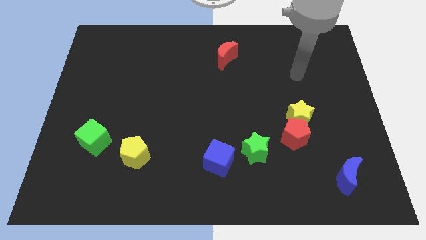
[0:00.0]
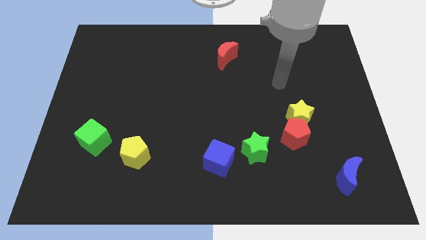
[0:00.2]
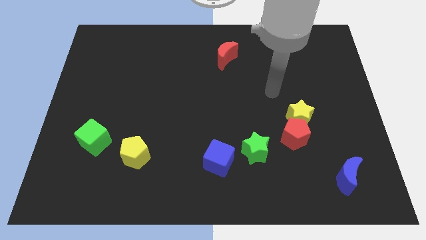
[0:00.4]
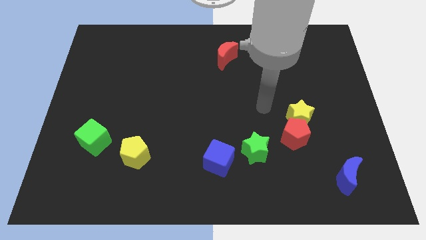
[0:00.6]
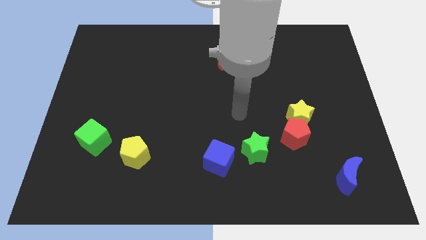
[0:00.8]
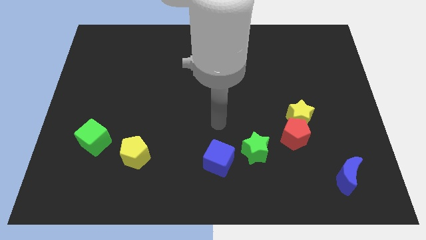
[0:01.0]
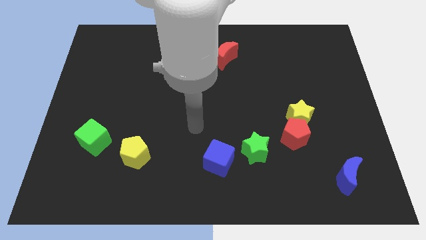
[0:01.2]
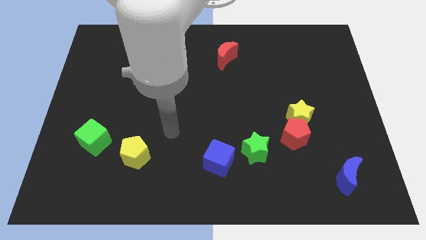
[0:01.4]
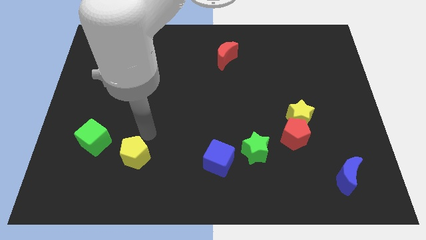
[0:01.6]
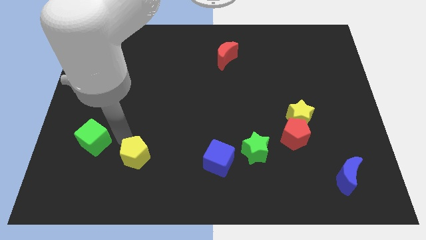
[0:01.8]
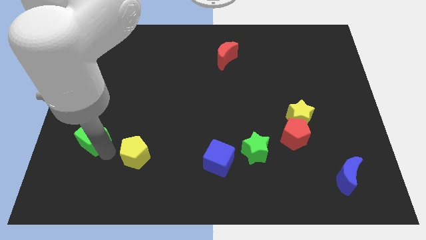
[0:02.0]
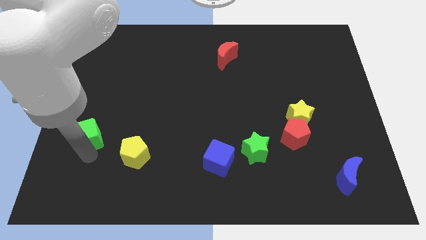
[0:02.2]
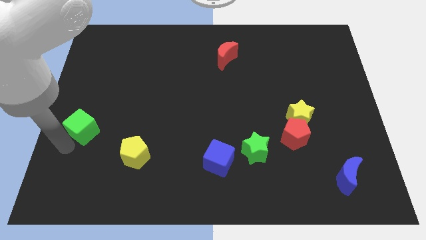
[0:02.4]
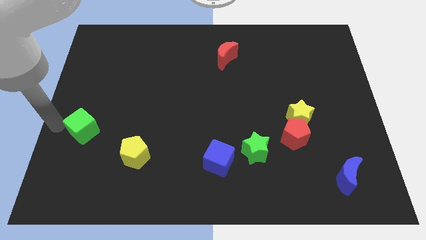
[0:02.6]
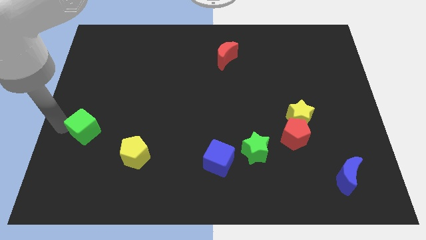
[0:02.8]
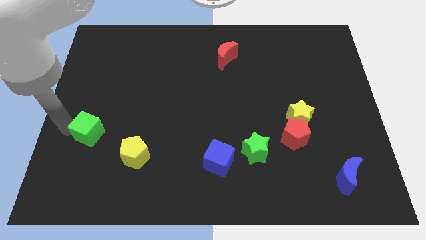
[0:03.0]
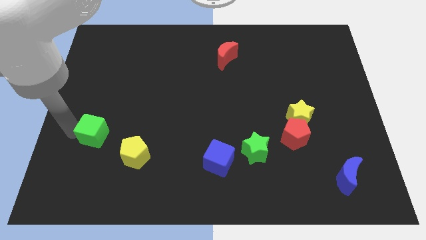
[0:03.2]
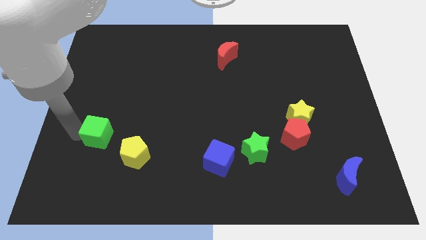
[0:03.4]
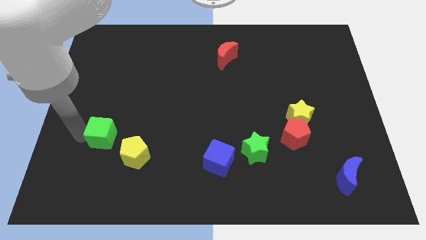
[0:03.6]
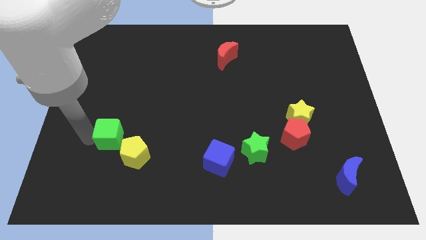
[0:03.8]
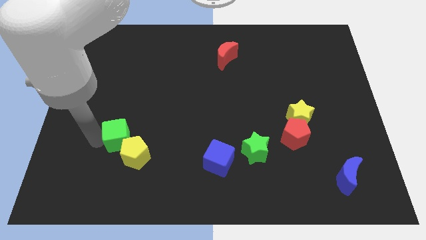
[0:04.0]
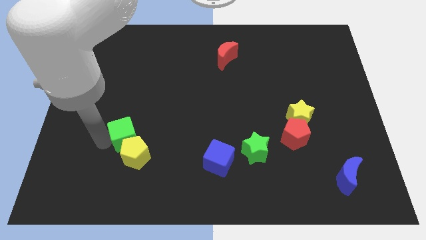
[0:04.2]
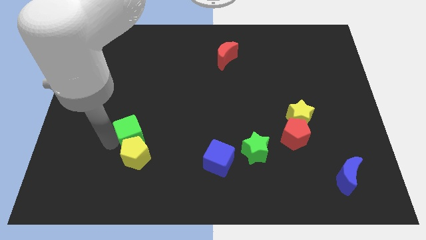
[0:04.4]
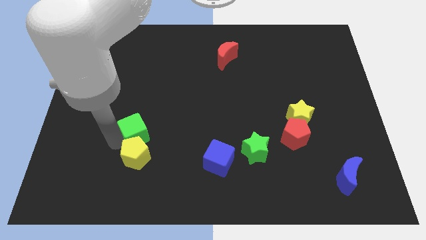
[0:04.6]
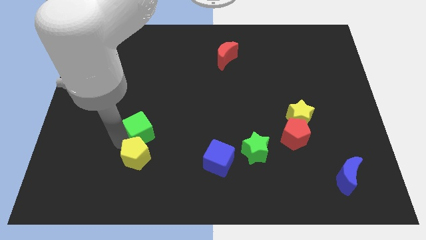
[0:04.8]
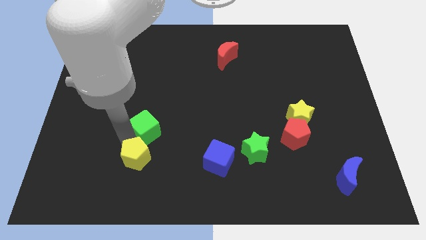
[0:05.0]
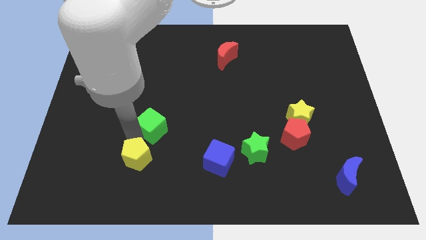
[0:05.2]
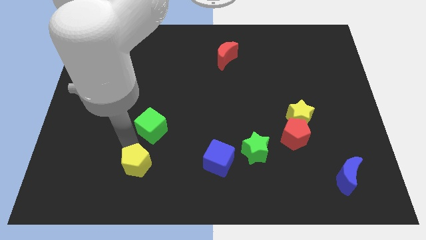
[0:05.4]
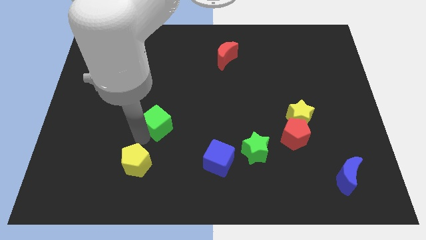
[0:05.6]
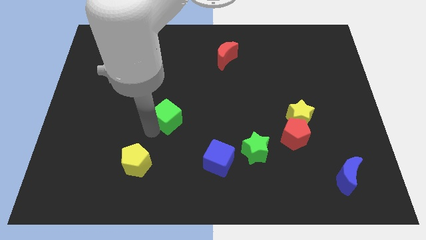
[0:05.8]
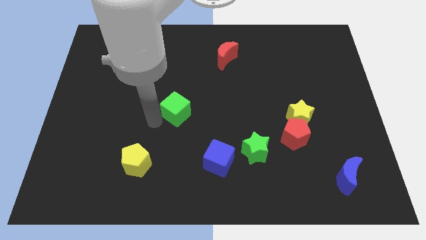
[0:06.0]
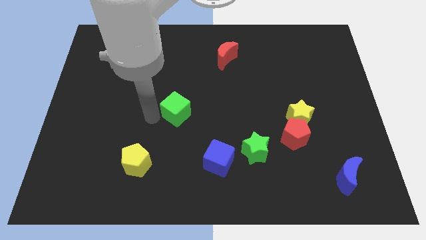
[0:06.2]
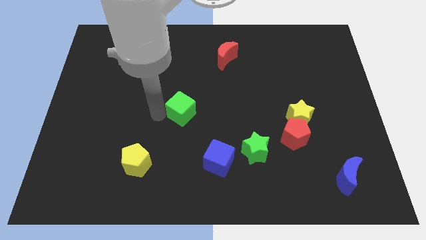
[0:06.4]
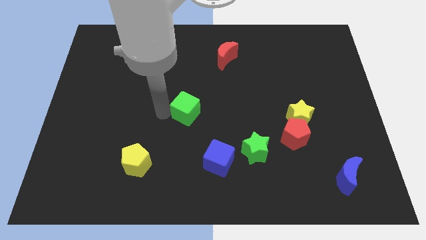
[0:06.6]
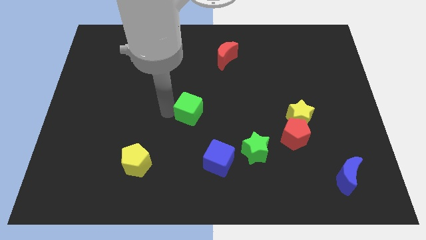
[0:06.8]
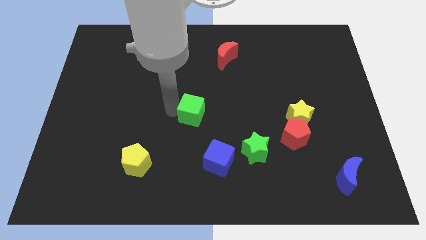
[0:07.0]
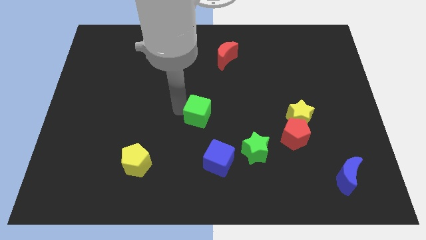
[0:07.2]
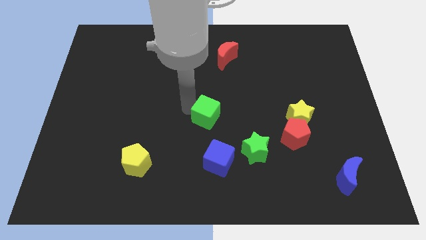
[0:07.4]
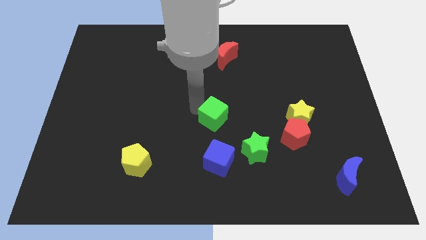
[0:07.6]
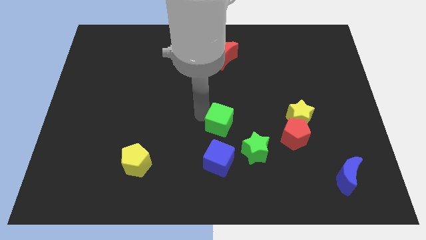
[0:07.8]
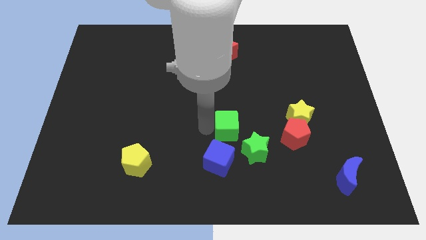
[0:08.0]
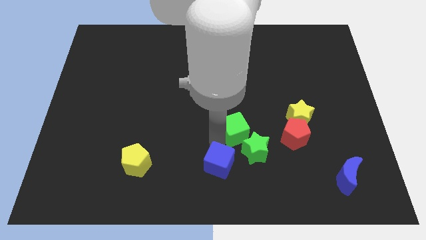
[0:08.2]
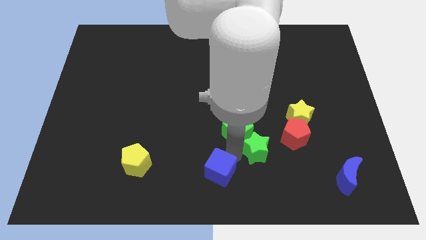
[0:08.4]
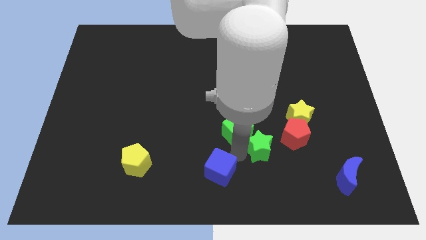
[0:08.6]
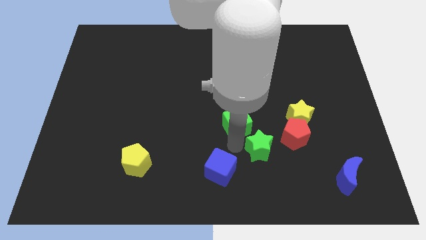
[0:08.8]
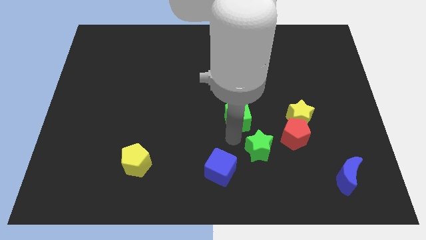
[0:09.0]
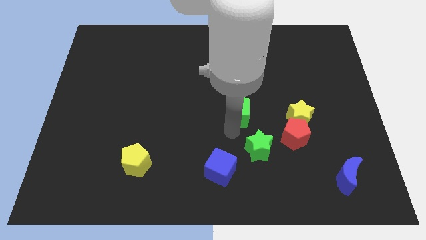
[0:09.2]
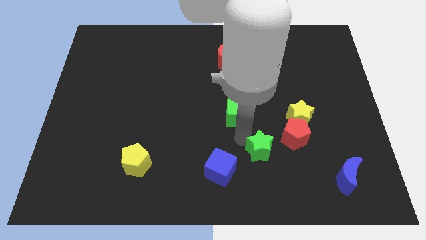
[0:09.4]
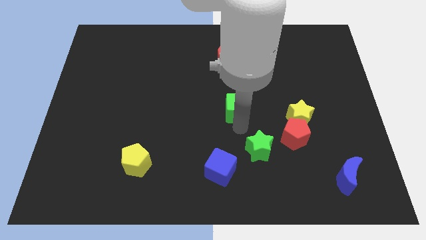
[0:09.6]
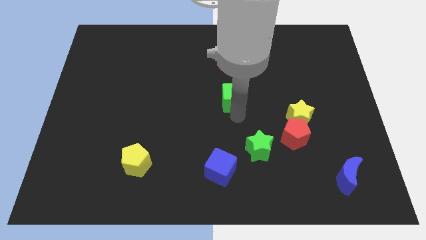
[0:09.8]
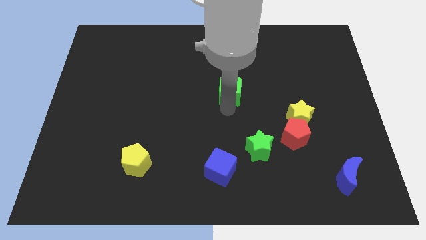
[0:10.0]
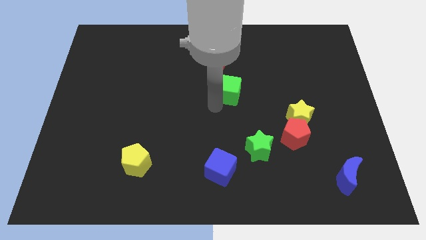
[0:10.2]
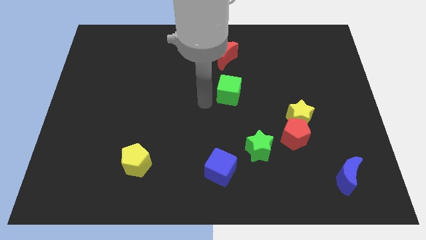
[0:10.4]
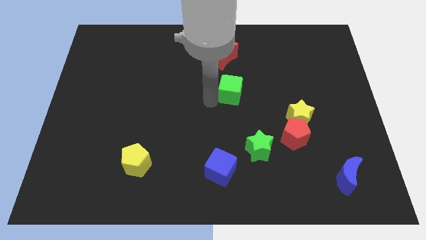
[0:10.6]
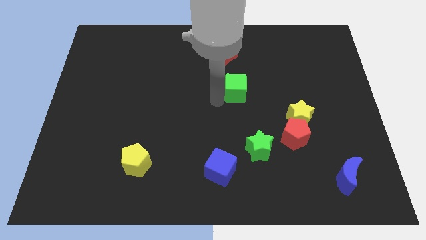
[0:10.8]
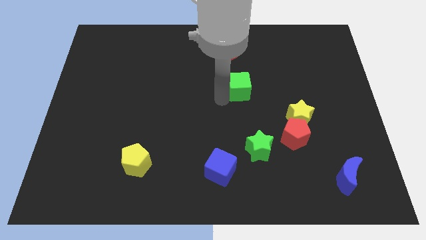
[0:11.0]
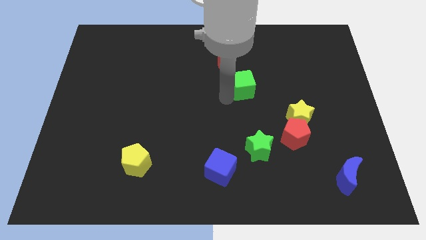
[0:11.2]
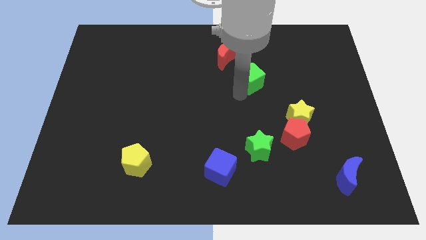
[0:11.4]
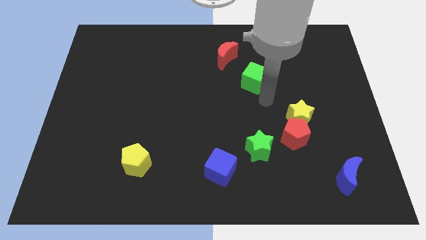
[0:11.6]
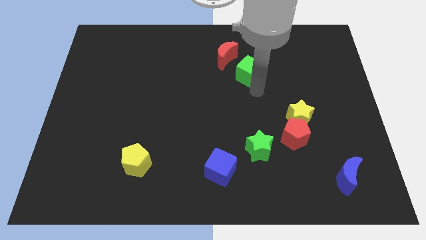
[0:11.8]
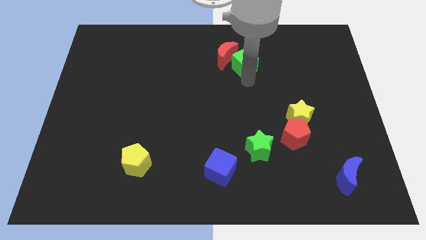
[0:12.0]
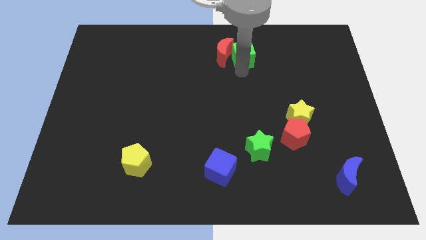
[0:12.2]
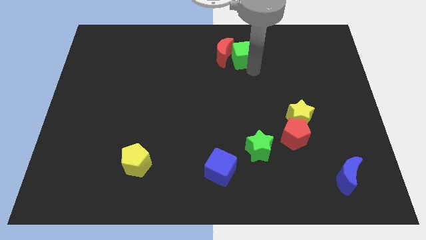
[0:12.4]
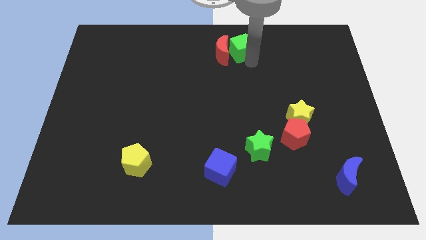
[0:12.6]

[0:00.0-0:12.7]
move the green cube to the towards your base

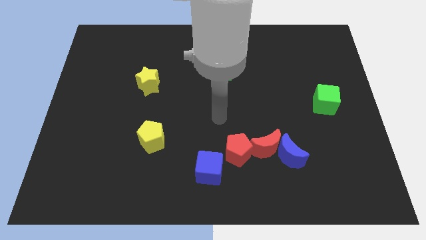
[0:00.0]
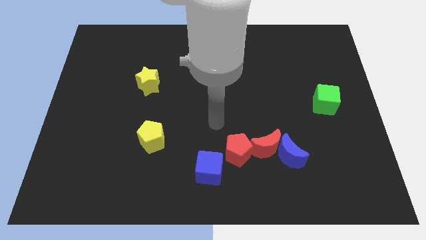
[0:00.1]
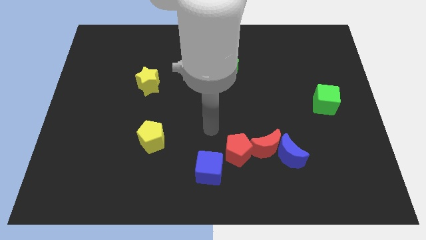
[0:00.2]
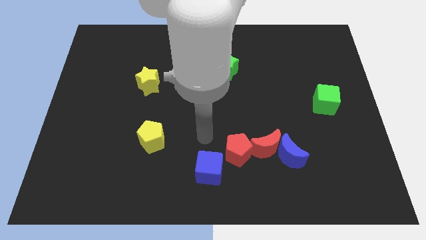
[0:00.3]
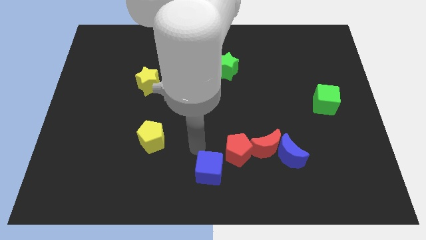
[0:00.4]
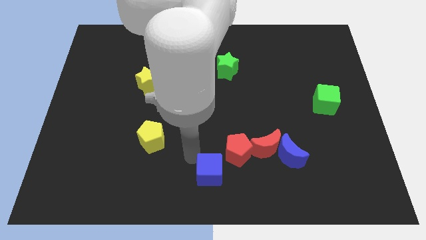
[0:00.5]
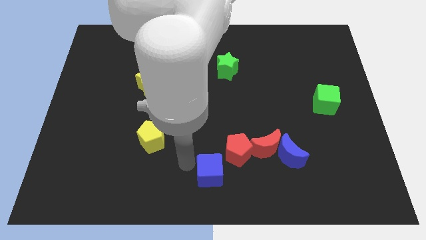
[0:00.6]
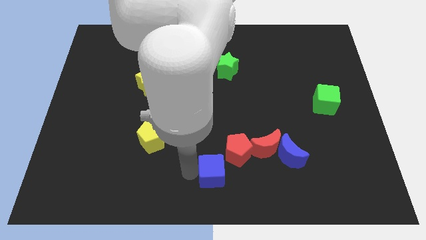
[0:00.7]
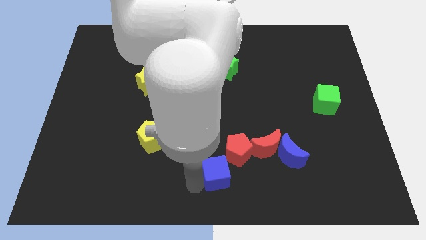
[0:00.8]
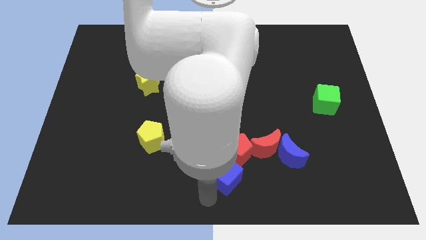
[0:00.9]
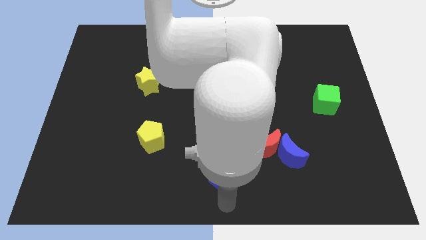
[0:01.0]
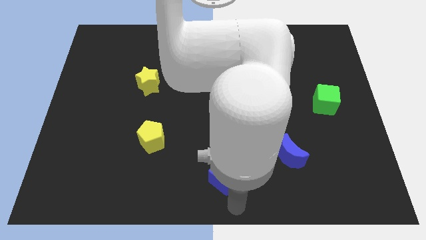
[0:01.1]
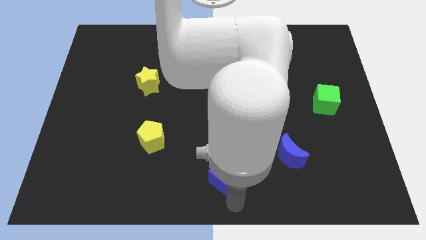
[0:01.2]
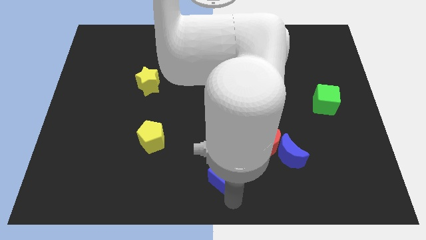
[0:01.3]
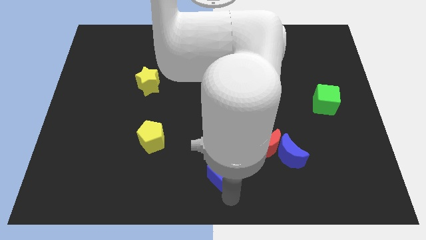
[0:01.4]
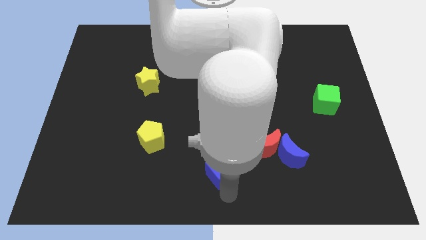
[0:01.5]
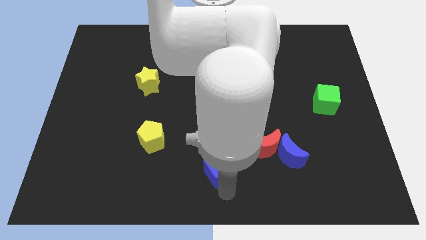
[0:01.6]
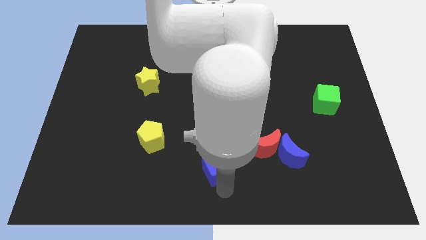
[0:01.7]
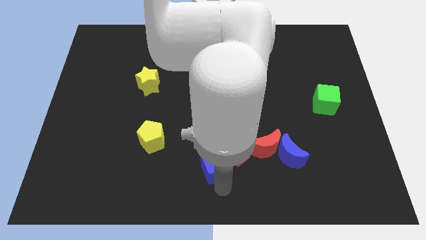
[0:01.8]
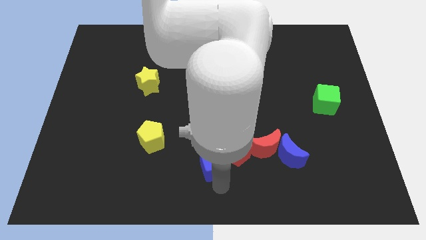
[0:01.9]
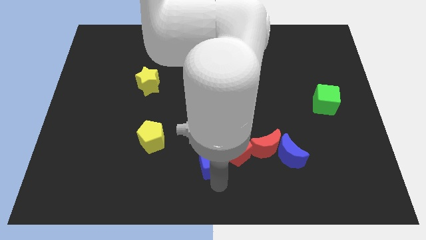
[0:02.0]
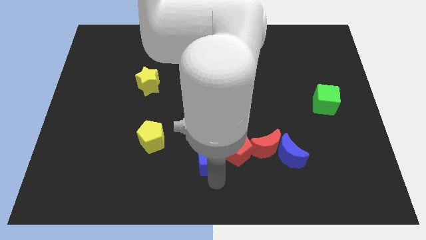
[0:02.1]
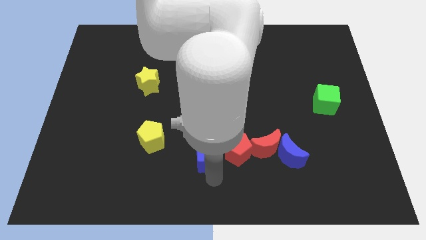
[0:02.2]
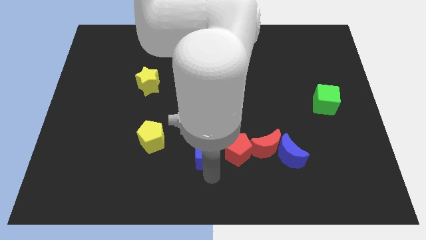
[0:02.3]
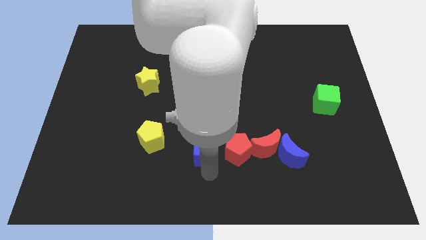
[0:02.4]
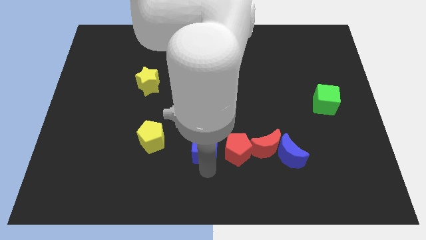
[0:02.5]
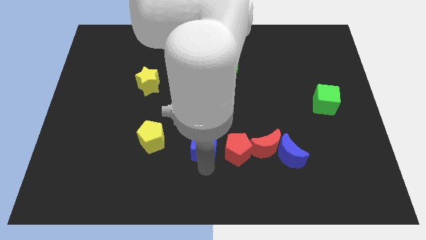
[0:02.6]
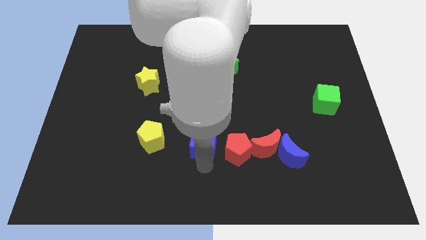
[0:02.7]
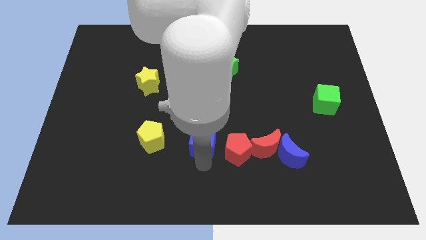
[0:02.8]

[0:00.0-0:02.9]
slide the blue cube to the middle of the board
